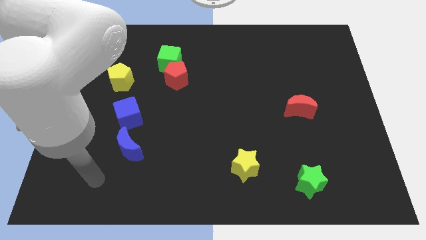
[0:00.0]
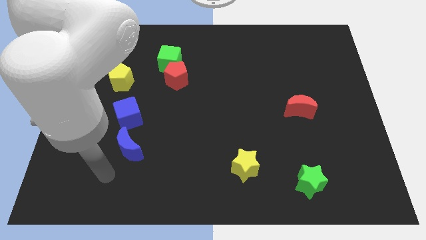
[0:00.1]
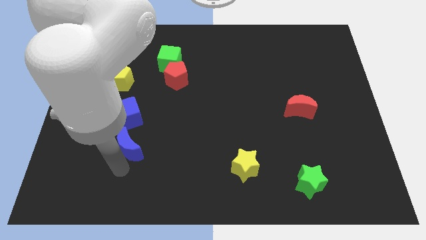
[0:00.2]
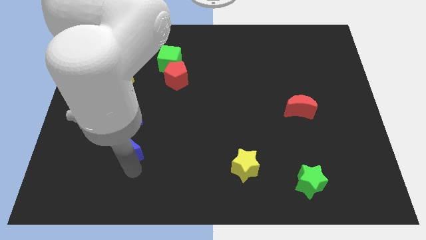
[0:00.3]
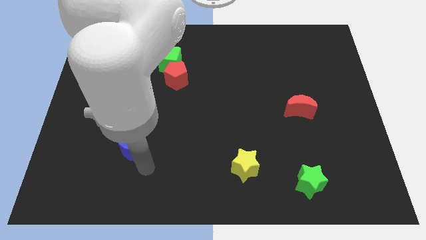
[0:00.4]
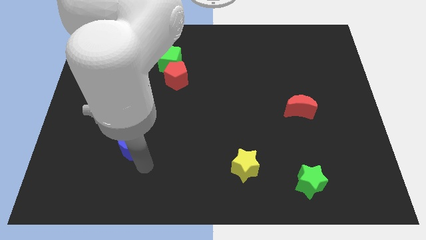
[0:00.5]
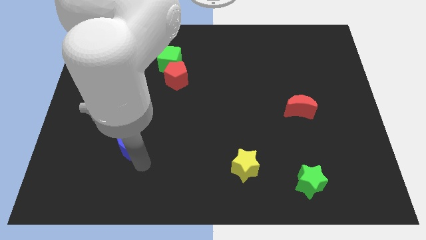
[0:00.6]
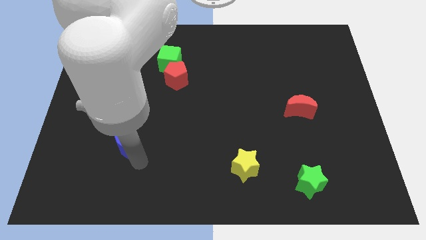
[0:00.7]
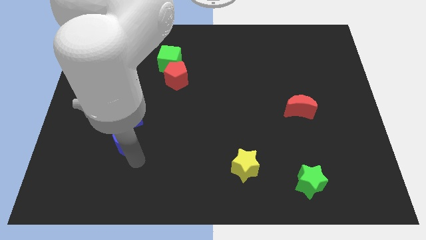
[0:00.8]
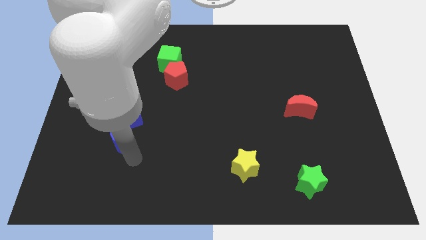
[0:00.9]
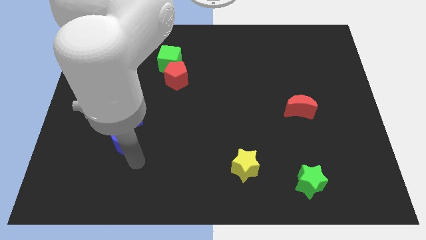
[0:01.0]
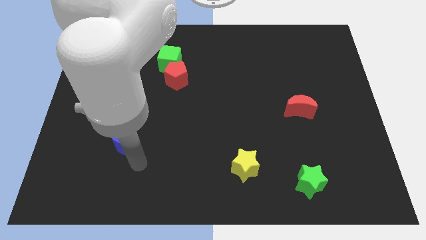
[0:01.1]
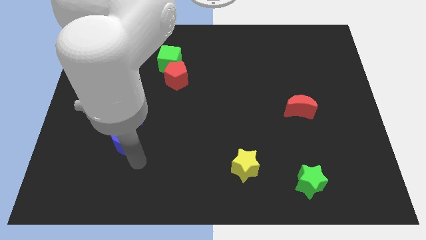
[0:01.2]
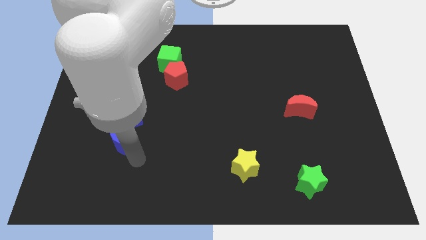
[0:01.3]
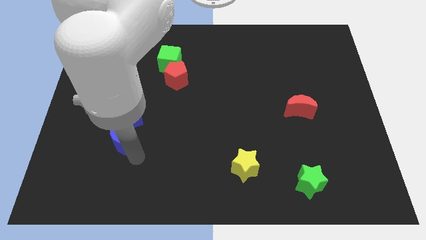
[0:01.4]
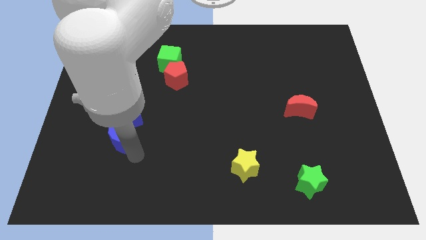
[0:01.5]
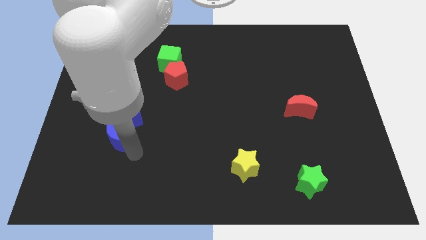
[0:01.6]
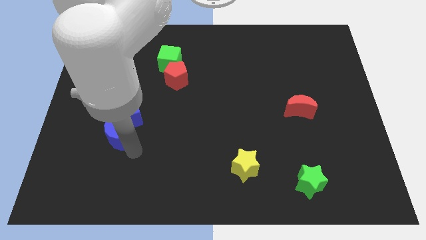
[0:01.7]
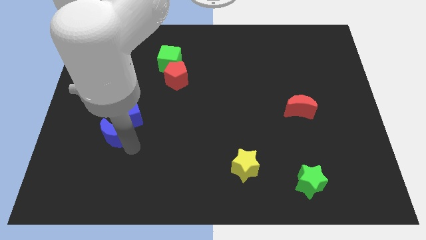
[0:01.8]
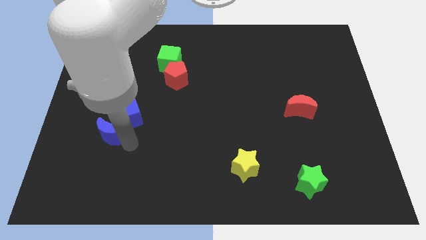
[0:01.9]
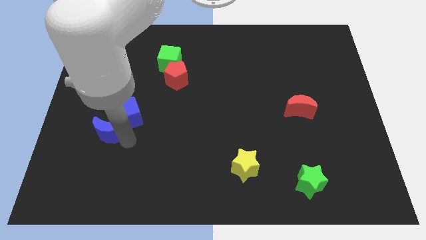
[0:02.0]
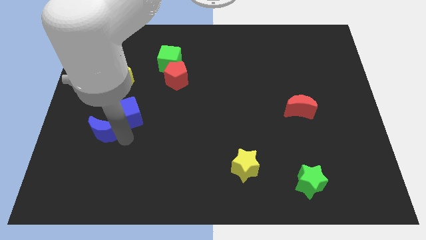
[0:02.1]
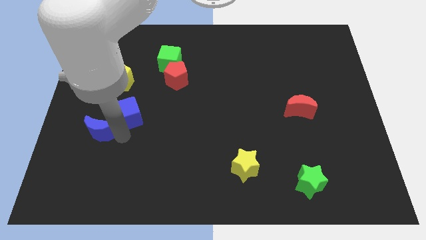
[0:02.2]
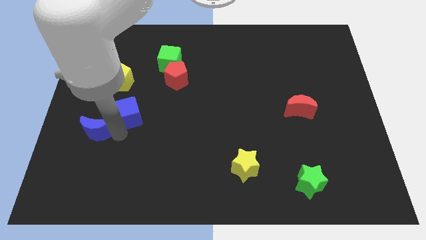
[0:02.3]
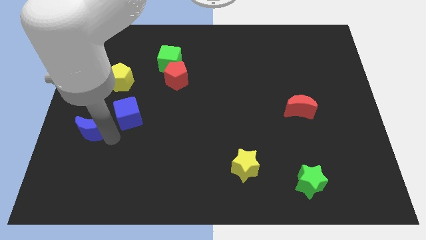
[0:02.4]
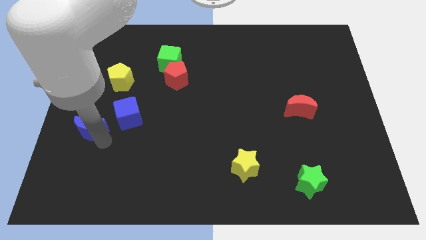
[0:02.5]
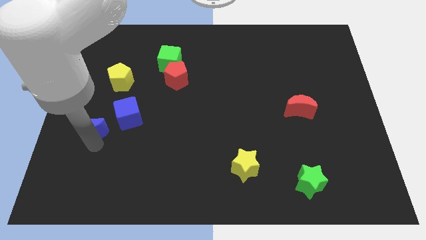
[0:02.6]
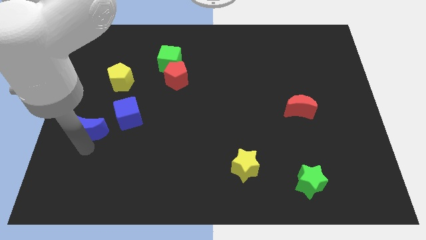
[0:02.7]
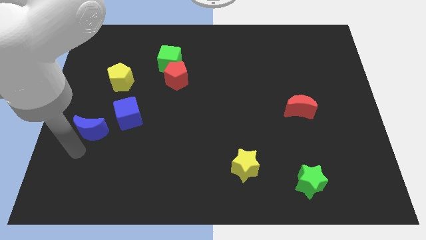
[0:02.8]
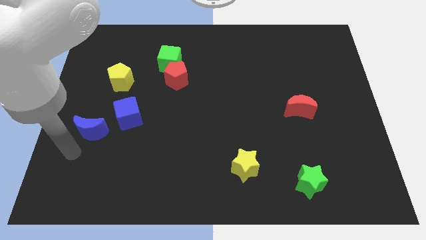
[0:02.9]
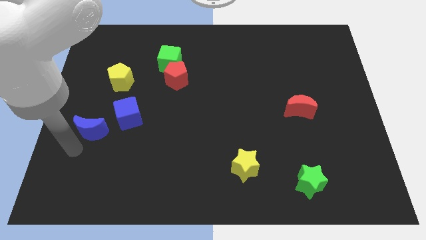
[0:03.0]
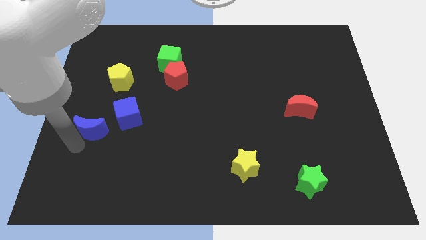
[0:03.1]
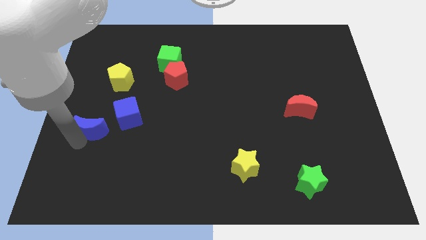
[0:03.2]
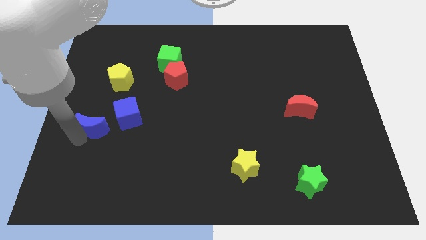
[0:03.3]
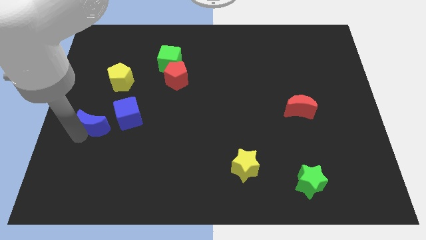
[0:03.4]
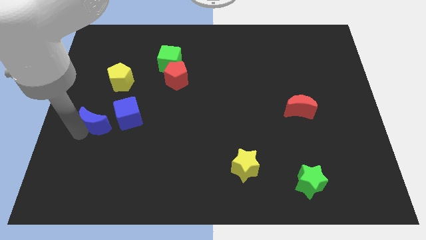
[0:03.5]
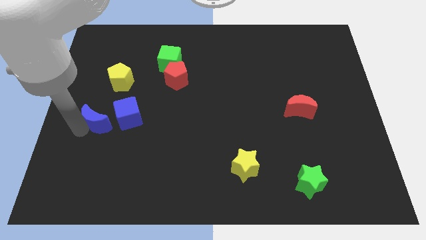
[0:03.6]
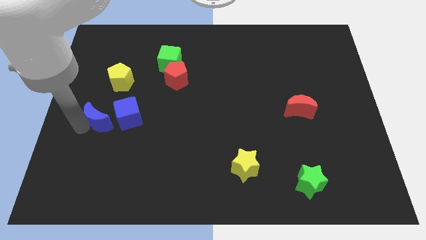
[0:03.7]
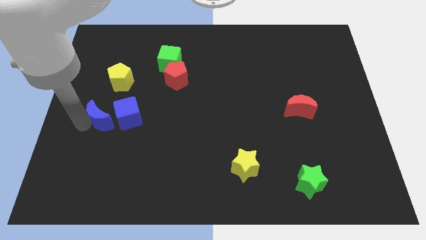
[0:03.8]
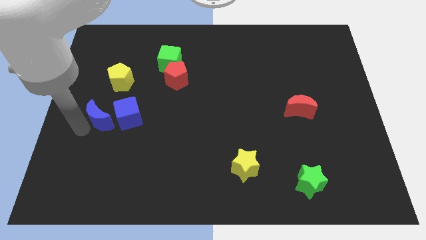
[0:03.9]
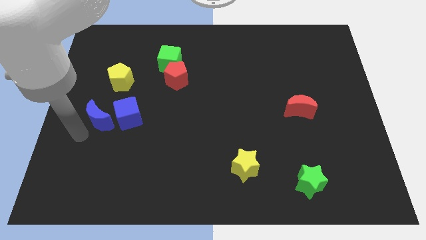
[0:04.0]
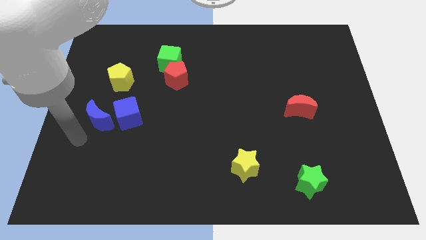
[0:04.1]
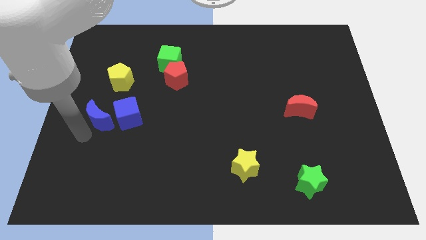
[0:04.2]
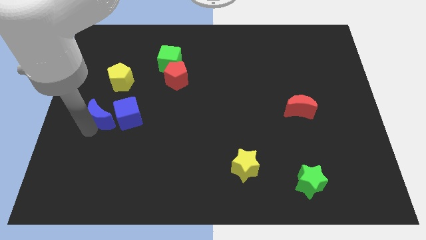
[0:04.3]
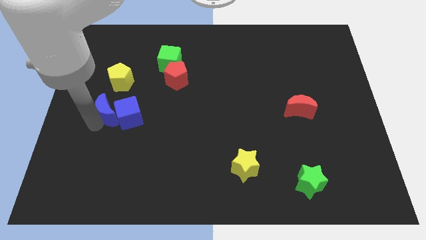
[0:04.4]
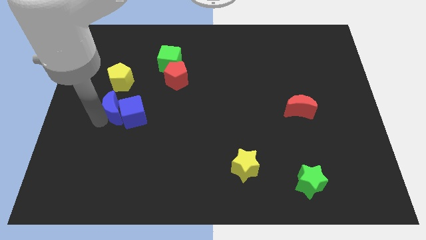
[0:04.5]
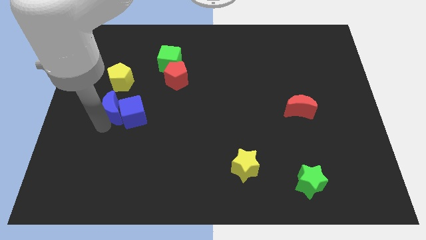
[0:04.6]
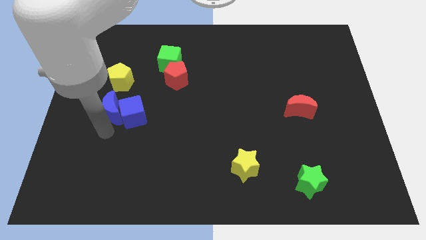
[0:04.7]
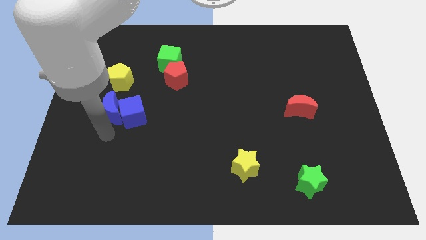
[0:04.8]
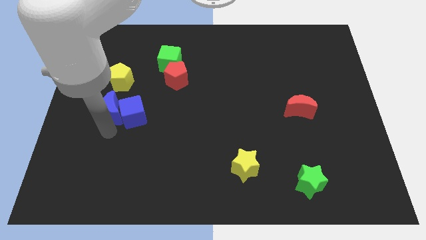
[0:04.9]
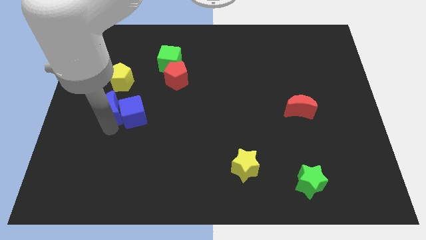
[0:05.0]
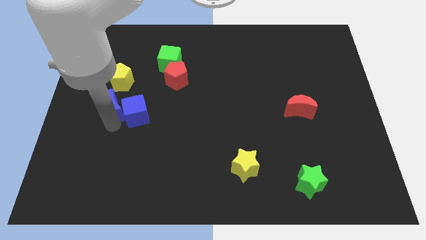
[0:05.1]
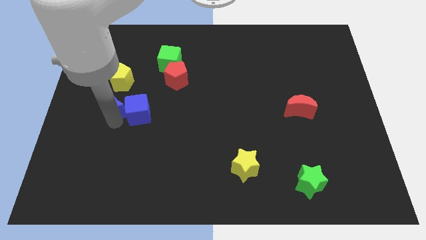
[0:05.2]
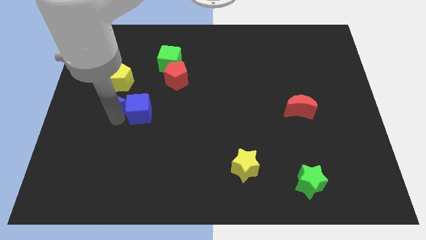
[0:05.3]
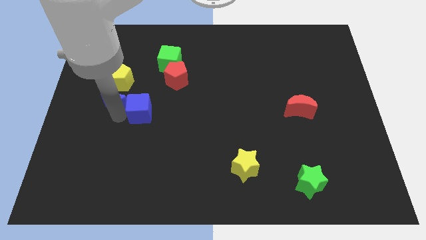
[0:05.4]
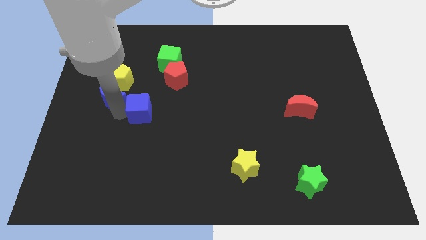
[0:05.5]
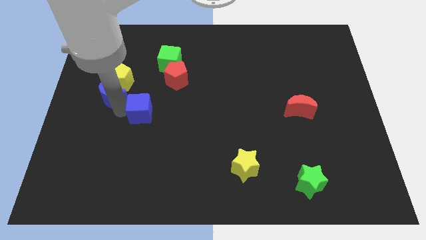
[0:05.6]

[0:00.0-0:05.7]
push the blue moon to the yellow pentagon

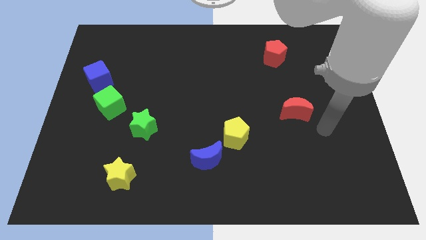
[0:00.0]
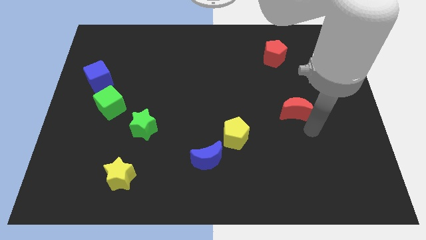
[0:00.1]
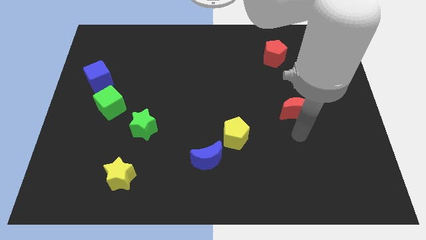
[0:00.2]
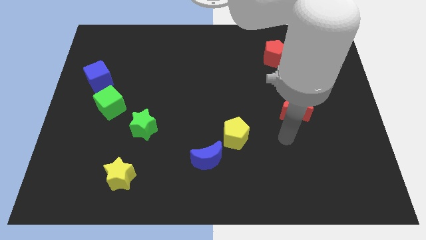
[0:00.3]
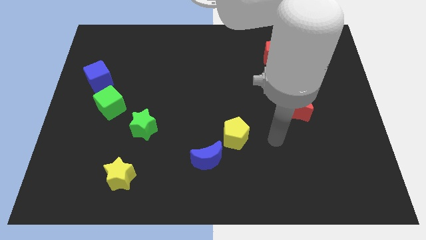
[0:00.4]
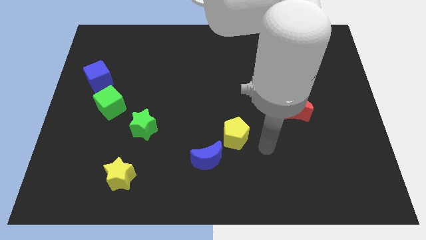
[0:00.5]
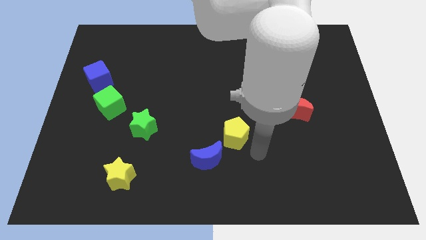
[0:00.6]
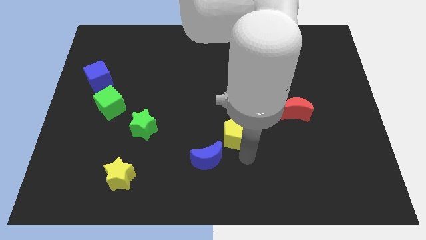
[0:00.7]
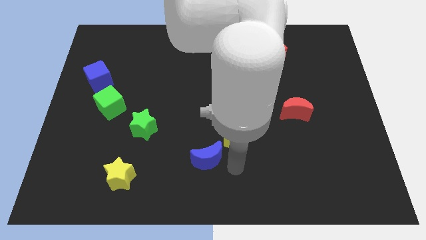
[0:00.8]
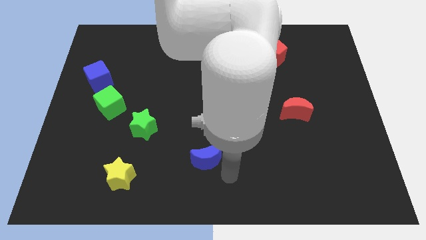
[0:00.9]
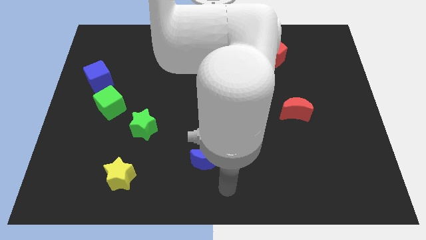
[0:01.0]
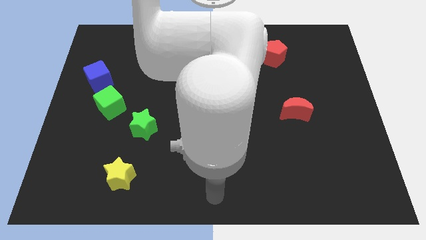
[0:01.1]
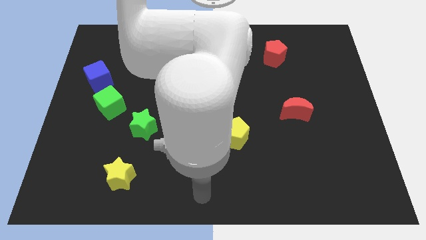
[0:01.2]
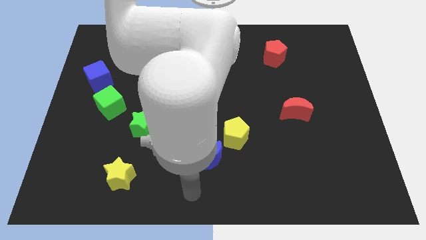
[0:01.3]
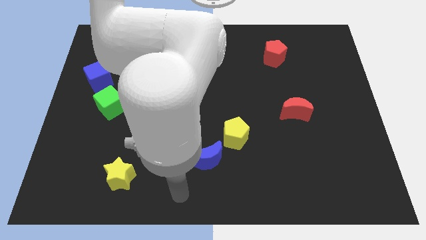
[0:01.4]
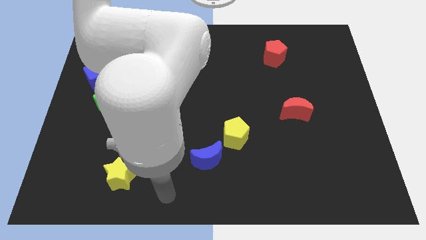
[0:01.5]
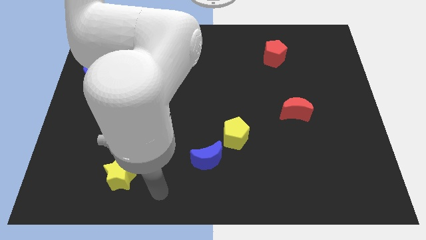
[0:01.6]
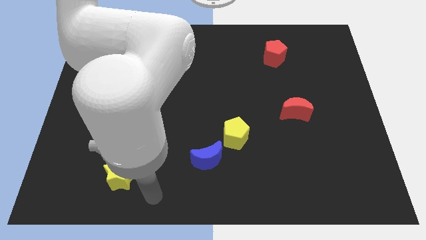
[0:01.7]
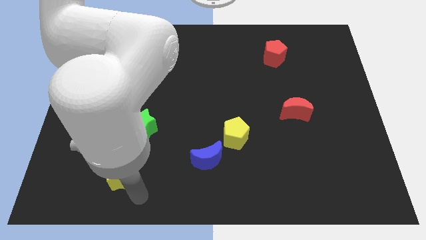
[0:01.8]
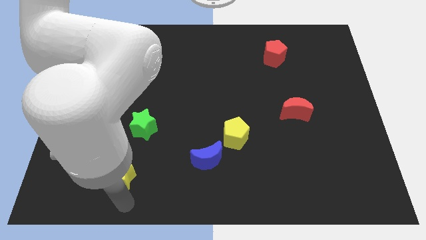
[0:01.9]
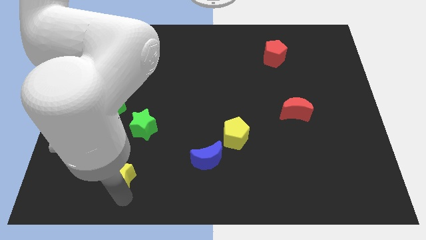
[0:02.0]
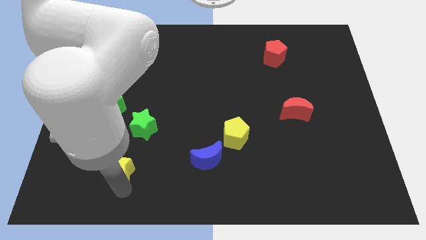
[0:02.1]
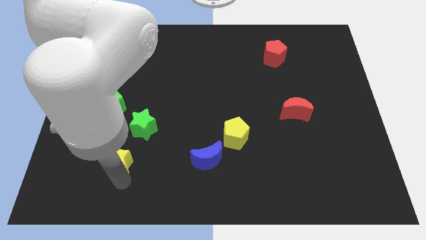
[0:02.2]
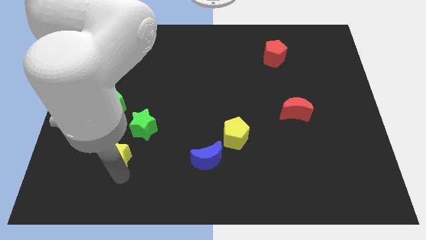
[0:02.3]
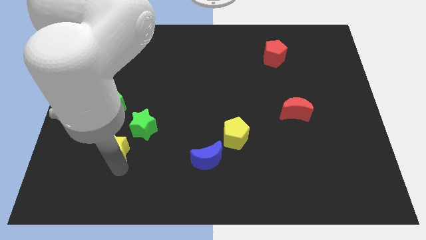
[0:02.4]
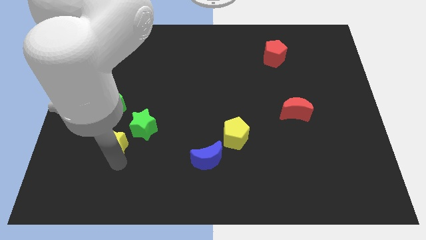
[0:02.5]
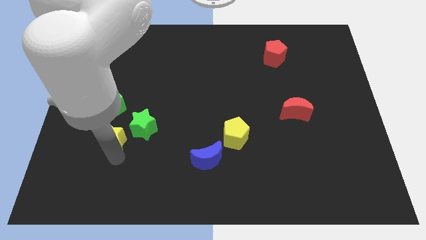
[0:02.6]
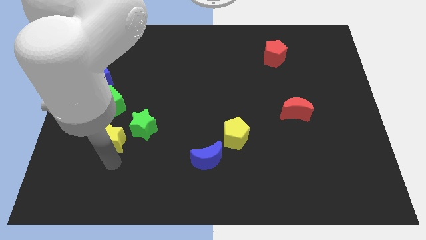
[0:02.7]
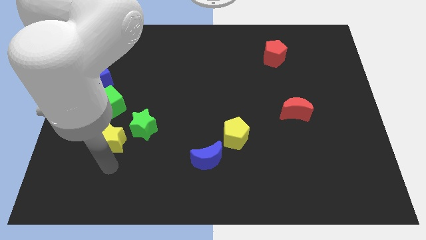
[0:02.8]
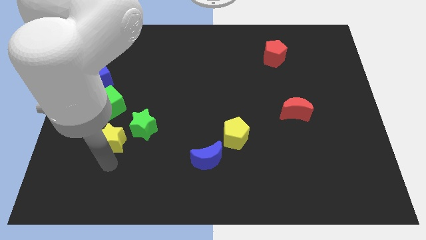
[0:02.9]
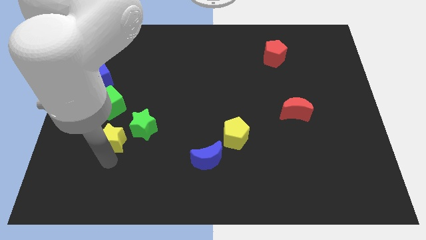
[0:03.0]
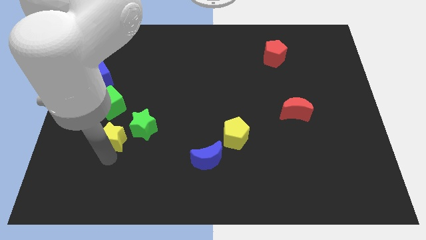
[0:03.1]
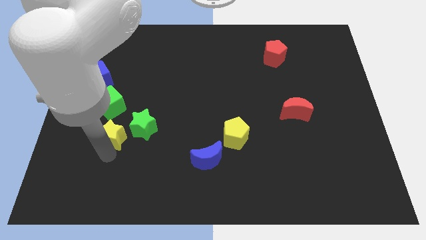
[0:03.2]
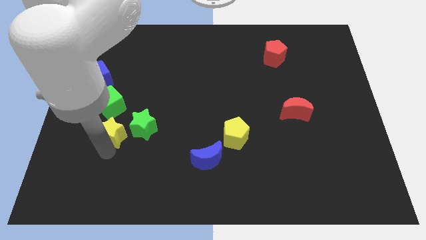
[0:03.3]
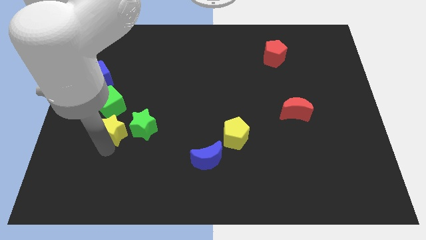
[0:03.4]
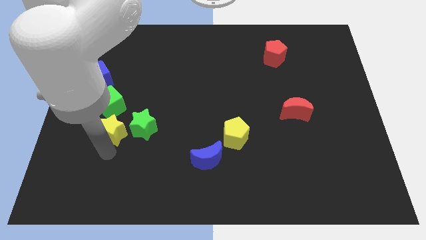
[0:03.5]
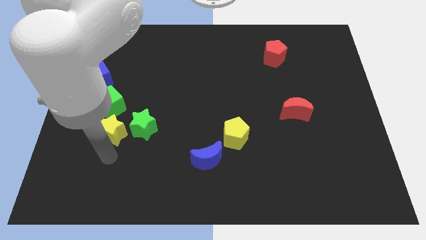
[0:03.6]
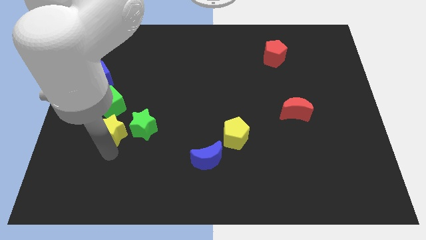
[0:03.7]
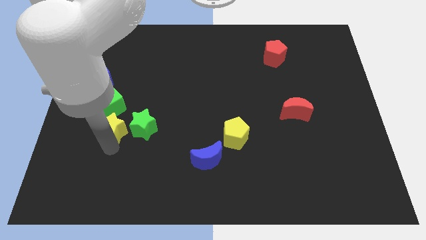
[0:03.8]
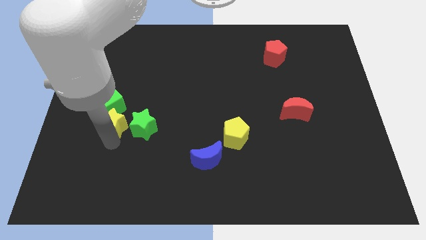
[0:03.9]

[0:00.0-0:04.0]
slide the yellow star towards the green cube
